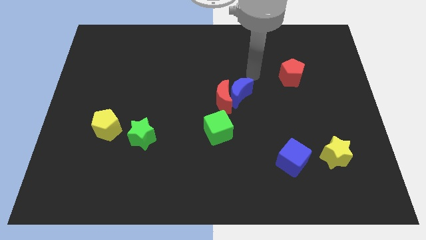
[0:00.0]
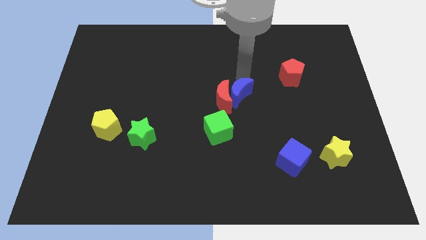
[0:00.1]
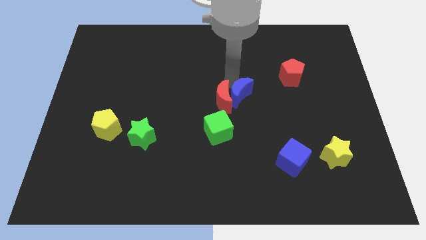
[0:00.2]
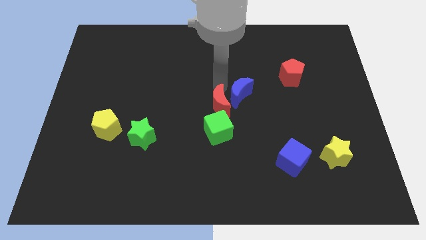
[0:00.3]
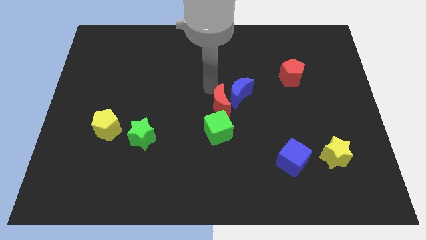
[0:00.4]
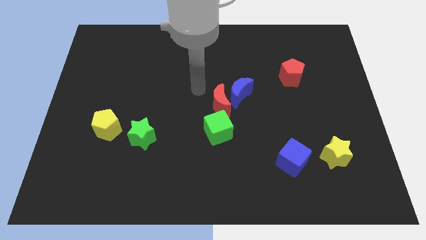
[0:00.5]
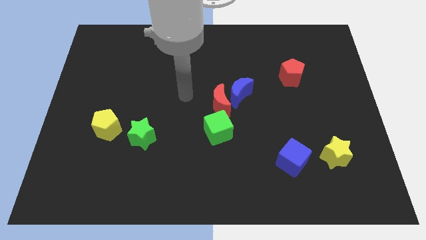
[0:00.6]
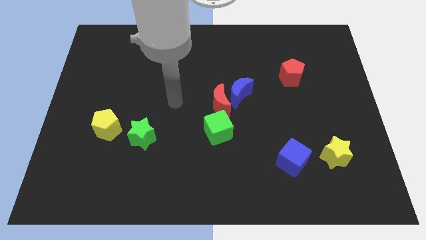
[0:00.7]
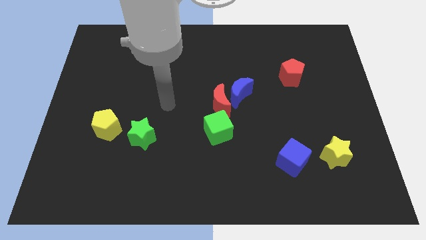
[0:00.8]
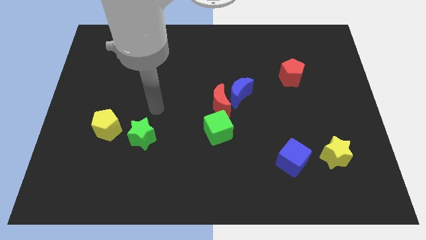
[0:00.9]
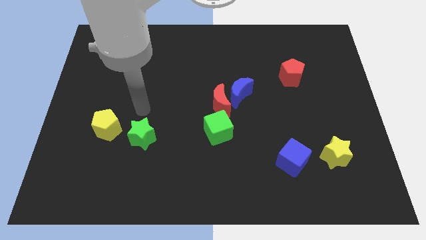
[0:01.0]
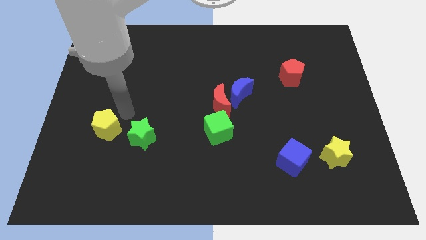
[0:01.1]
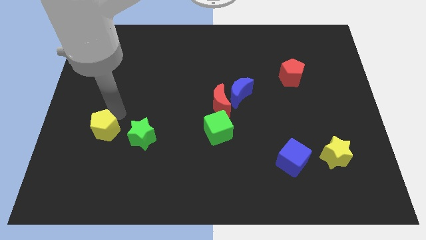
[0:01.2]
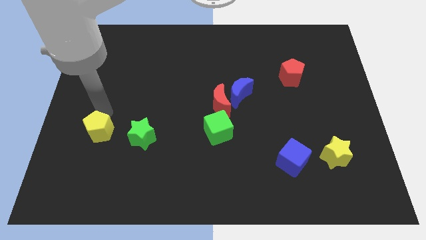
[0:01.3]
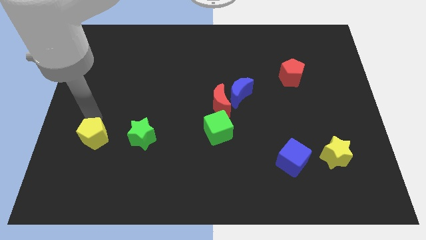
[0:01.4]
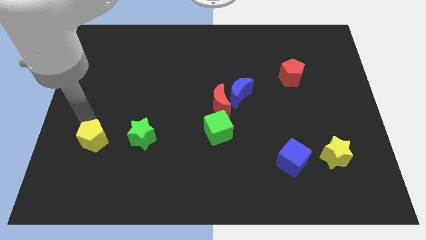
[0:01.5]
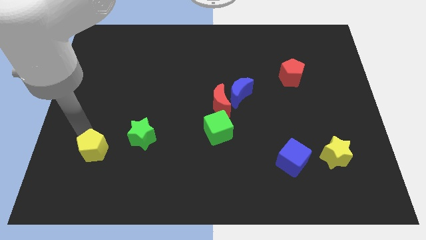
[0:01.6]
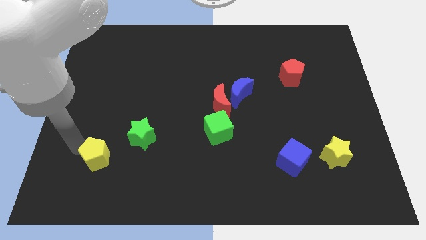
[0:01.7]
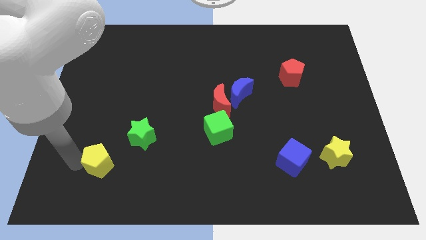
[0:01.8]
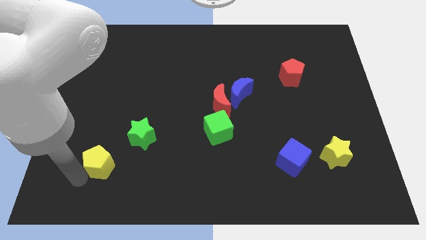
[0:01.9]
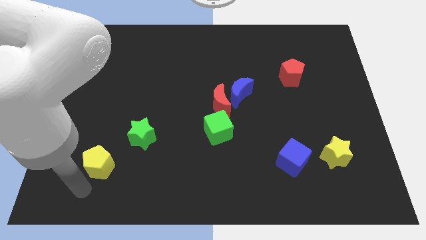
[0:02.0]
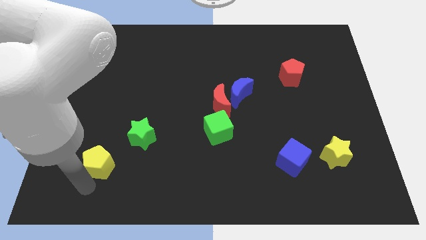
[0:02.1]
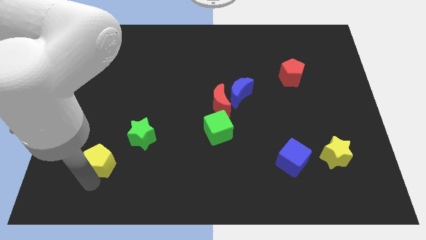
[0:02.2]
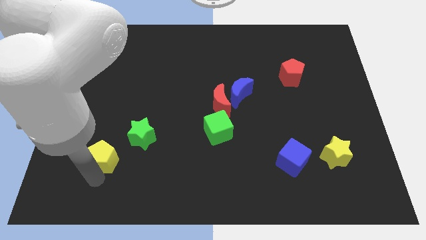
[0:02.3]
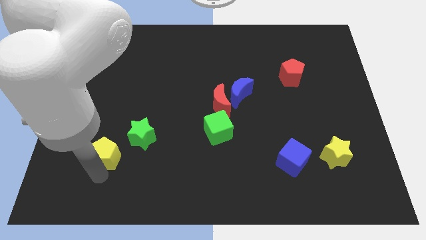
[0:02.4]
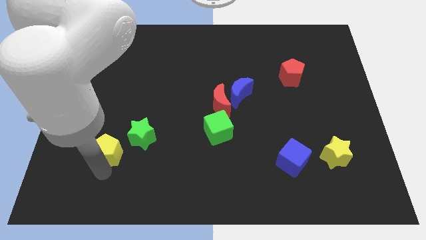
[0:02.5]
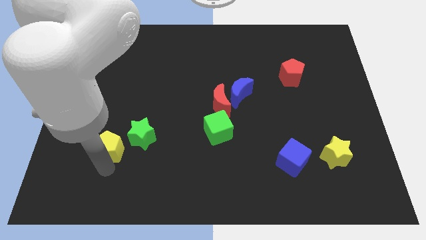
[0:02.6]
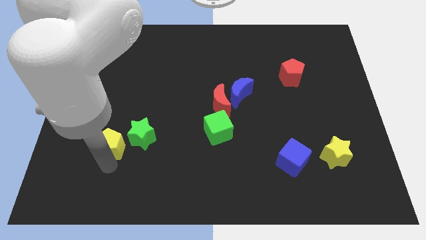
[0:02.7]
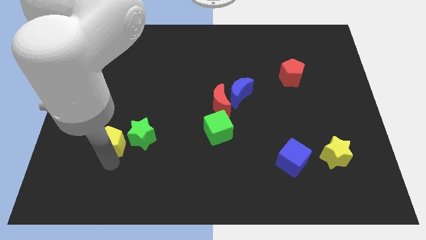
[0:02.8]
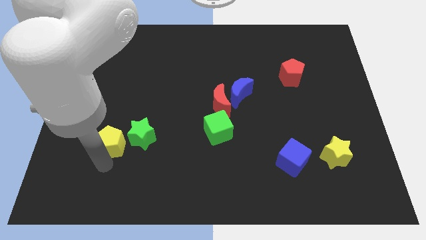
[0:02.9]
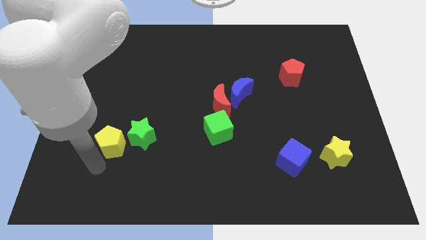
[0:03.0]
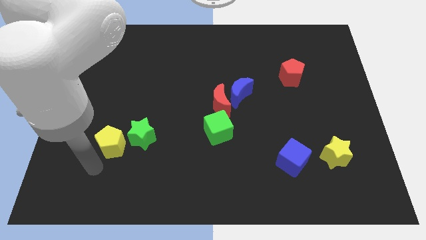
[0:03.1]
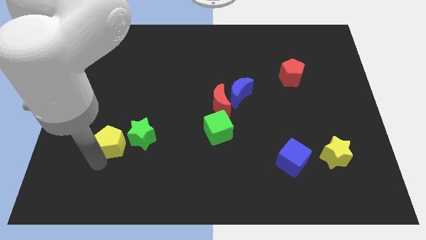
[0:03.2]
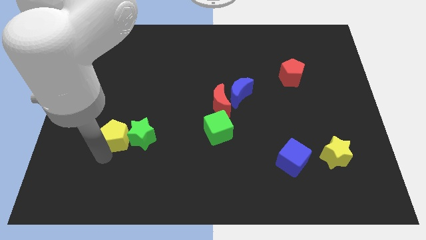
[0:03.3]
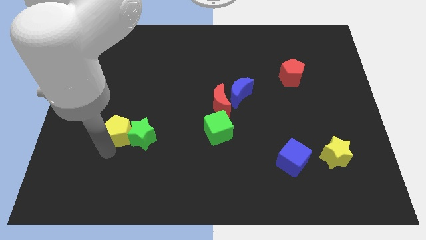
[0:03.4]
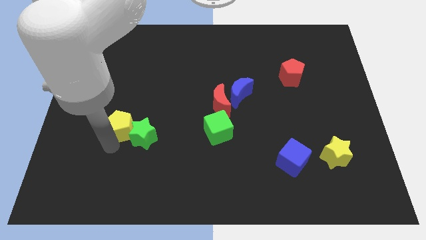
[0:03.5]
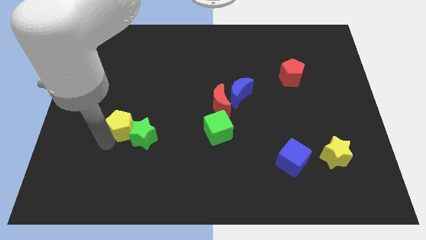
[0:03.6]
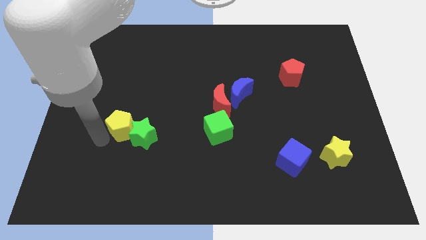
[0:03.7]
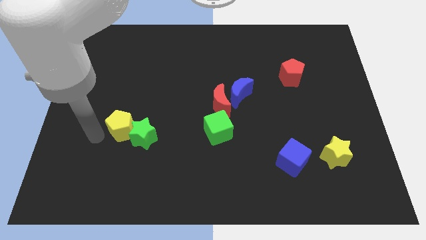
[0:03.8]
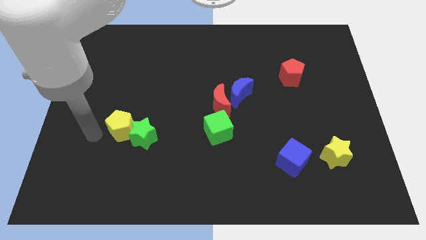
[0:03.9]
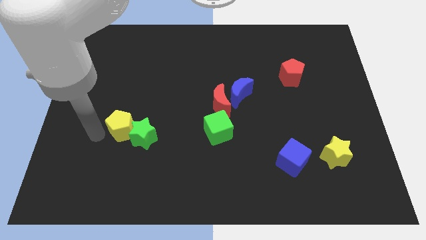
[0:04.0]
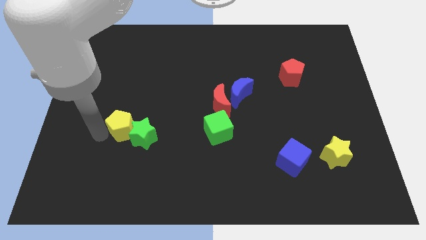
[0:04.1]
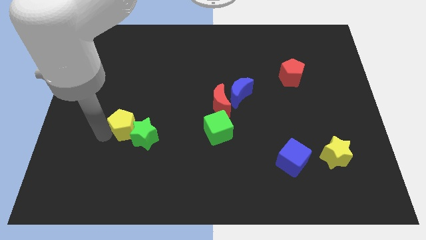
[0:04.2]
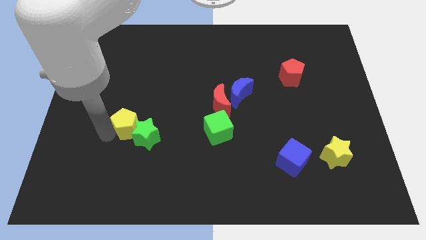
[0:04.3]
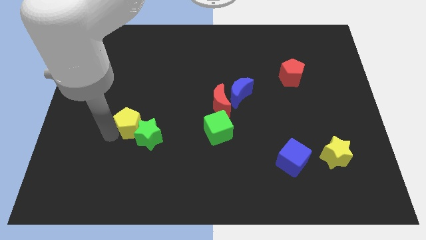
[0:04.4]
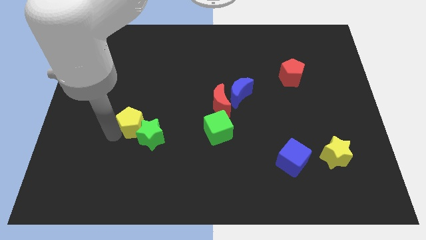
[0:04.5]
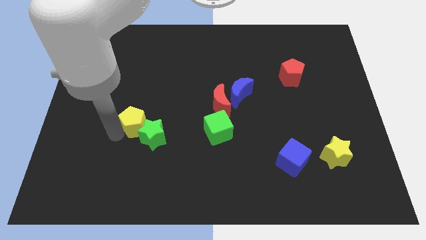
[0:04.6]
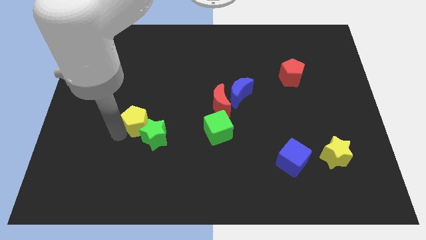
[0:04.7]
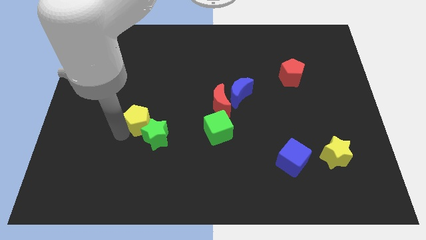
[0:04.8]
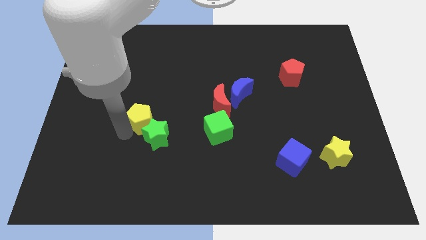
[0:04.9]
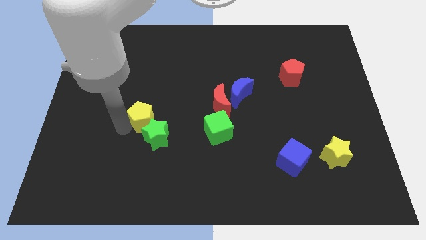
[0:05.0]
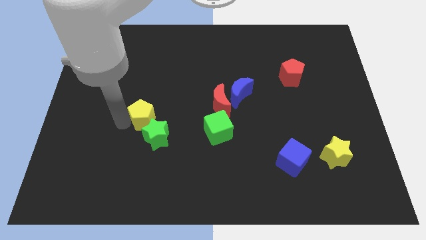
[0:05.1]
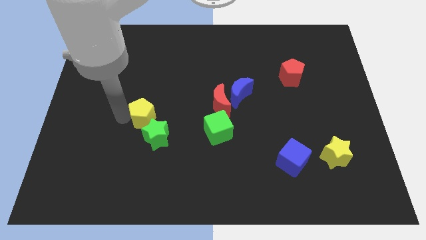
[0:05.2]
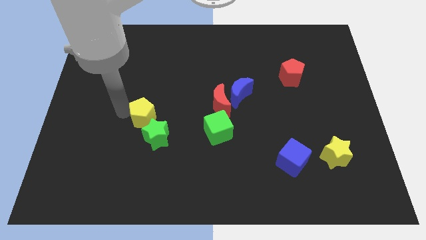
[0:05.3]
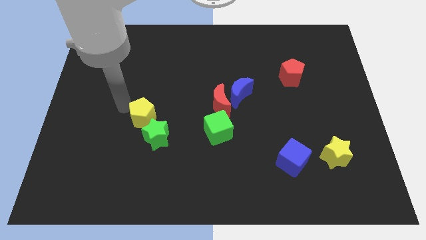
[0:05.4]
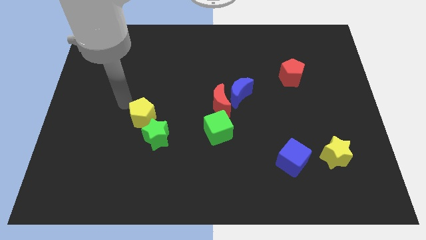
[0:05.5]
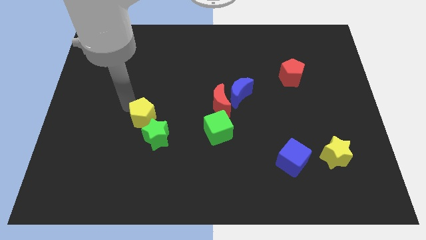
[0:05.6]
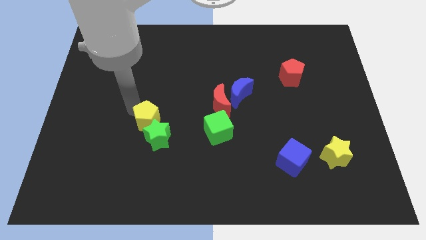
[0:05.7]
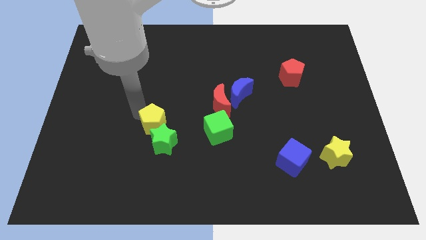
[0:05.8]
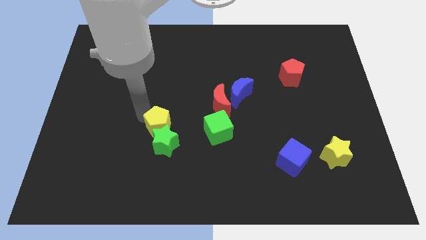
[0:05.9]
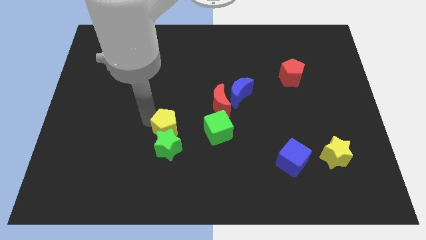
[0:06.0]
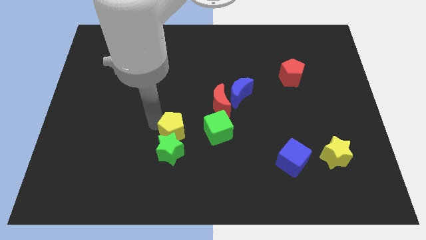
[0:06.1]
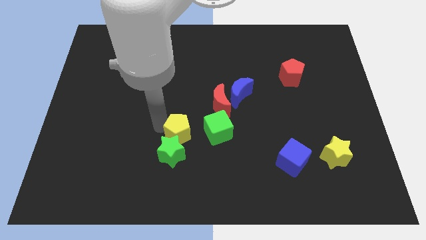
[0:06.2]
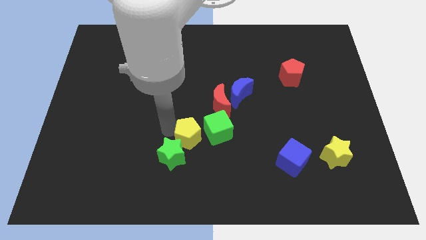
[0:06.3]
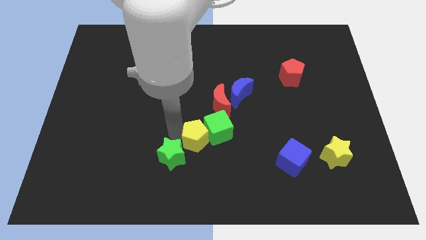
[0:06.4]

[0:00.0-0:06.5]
move the yellow pentagon to the green cube

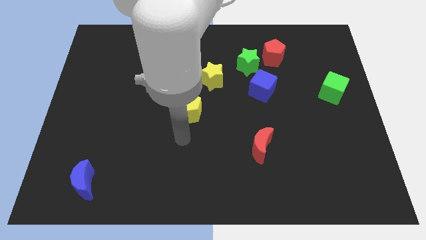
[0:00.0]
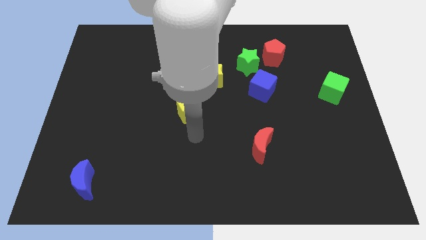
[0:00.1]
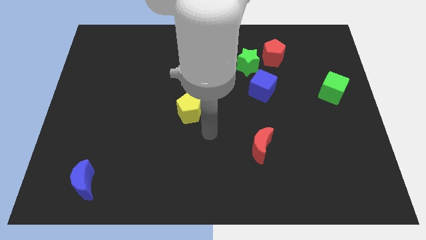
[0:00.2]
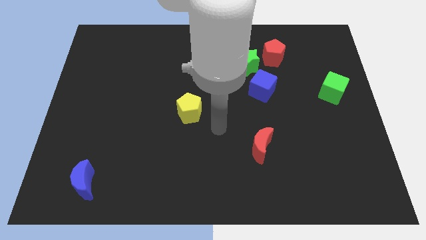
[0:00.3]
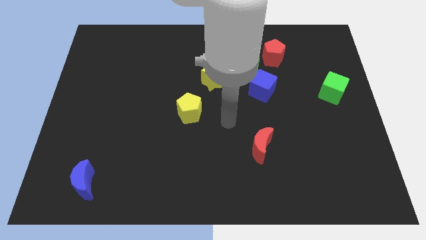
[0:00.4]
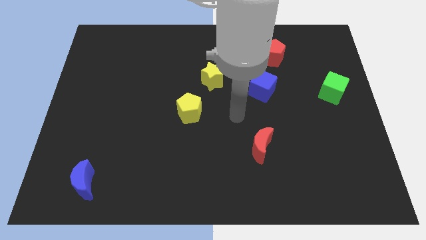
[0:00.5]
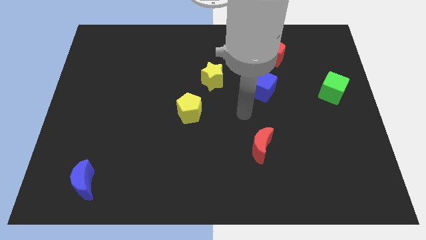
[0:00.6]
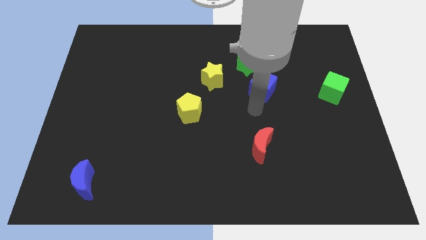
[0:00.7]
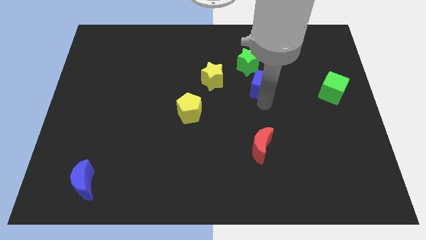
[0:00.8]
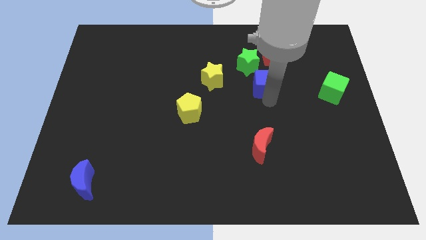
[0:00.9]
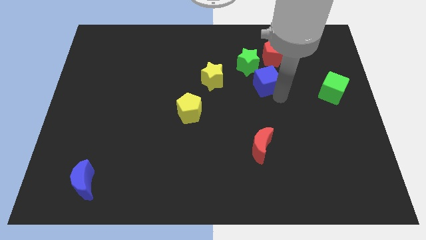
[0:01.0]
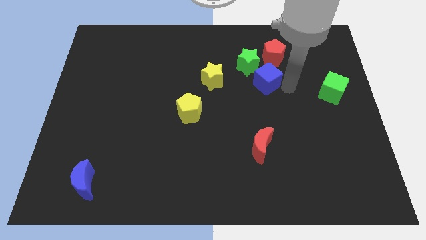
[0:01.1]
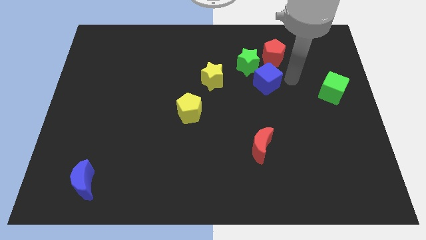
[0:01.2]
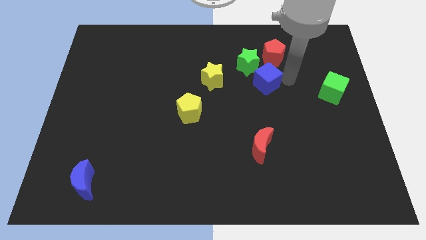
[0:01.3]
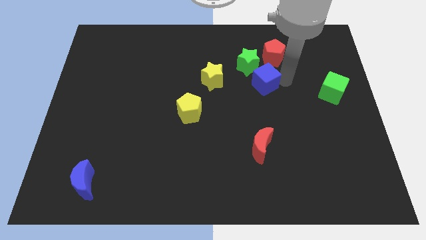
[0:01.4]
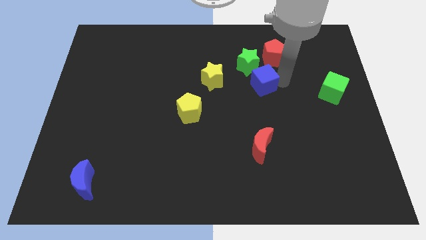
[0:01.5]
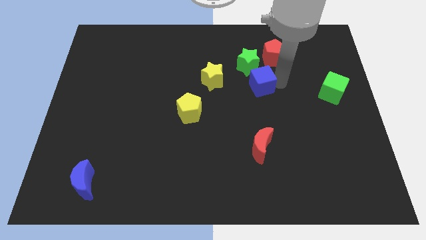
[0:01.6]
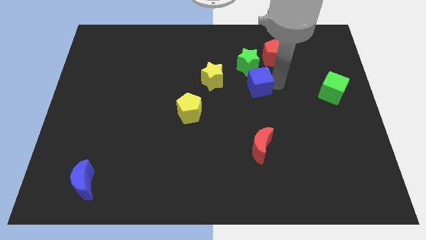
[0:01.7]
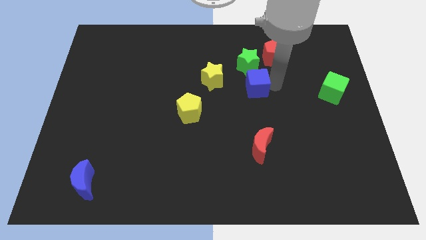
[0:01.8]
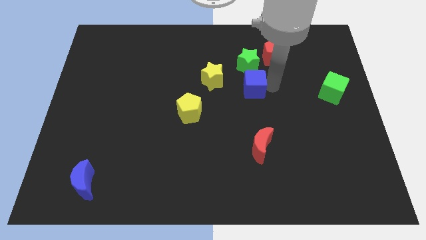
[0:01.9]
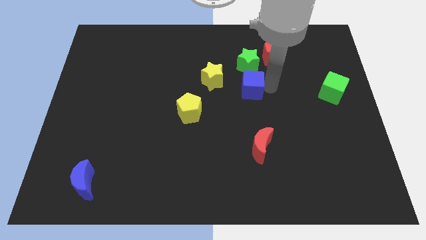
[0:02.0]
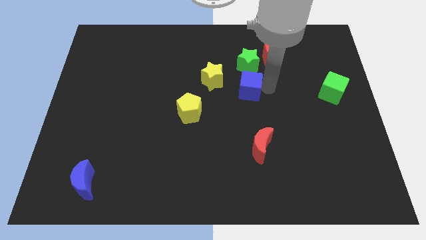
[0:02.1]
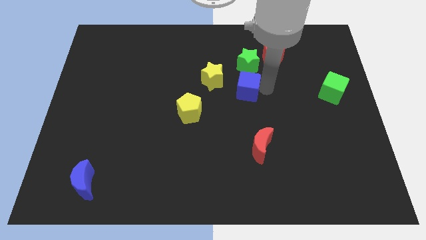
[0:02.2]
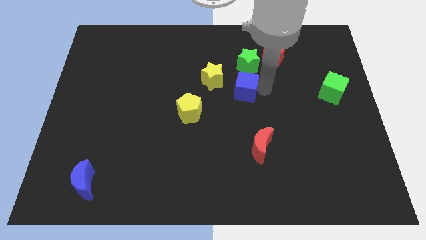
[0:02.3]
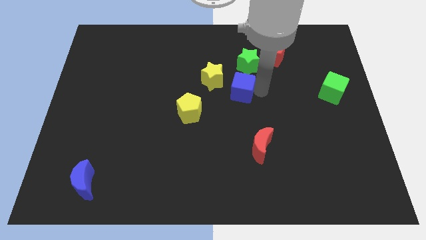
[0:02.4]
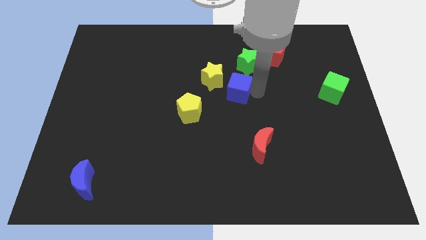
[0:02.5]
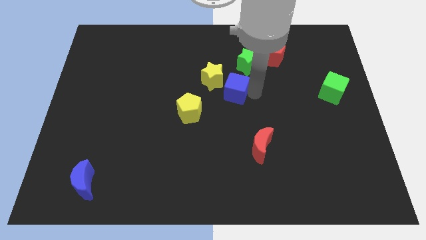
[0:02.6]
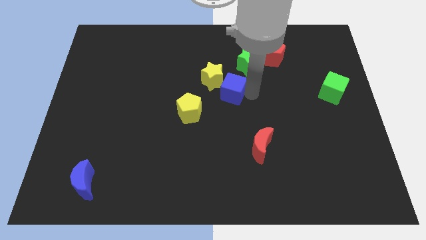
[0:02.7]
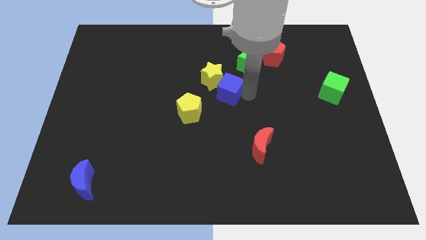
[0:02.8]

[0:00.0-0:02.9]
slide the blue cube close to the yellow star
